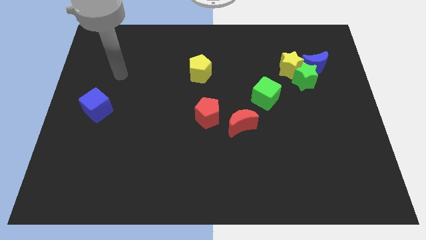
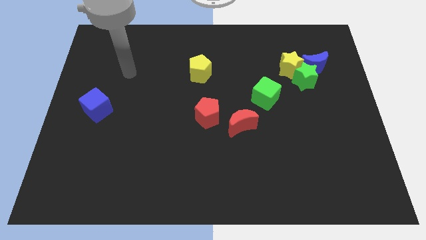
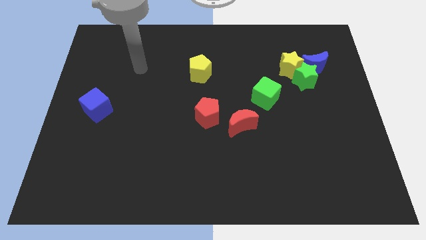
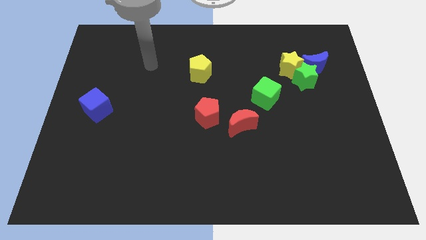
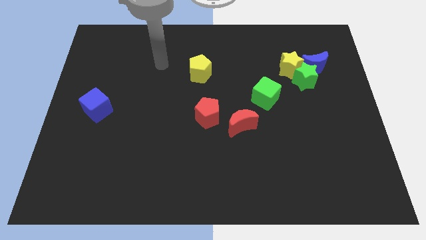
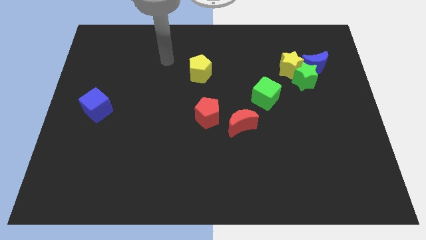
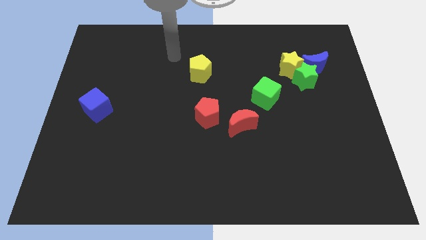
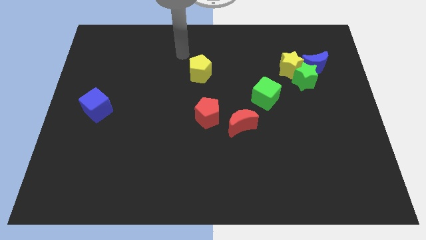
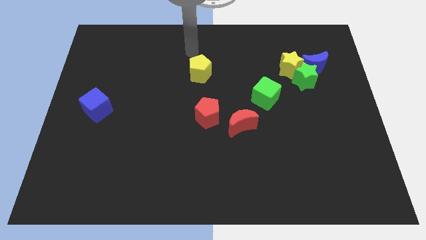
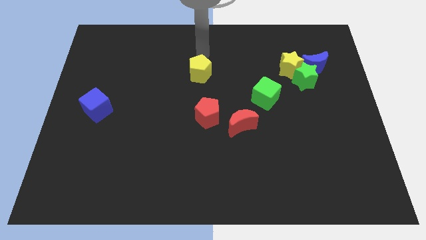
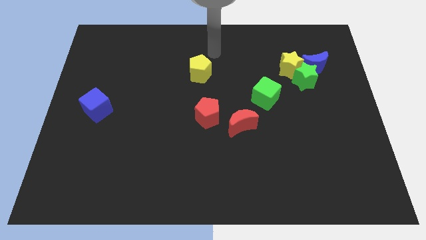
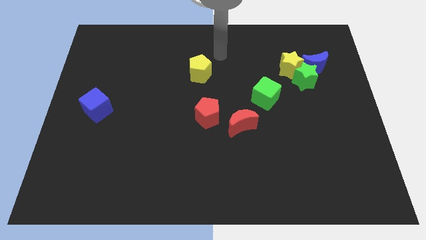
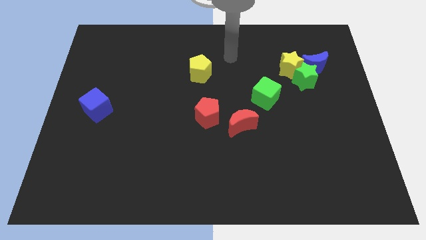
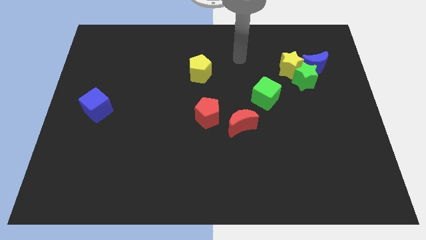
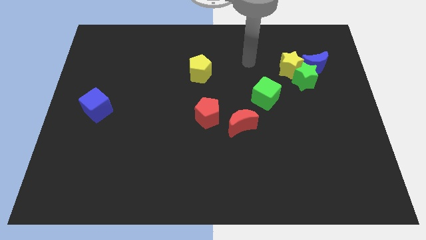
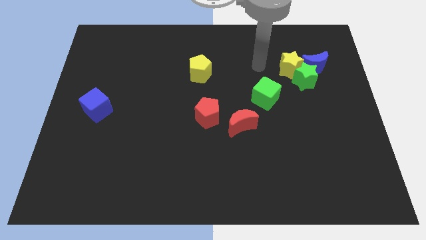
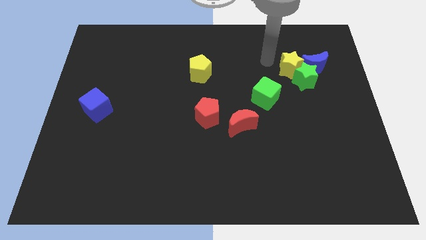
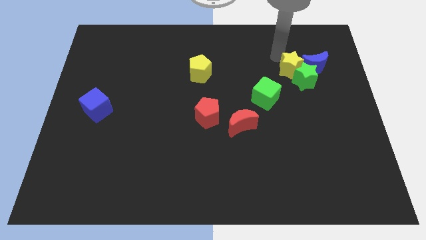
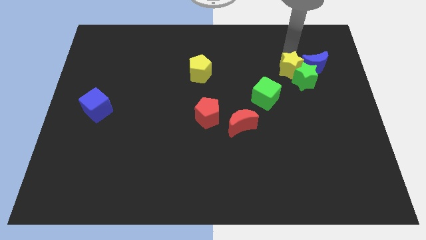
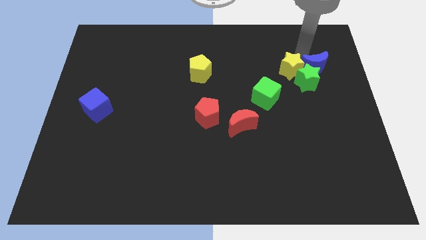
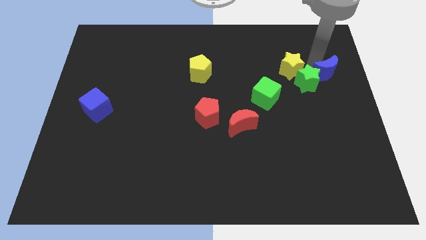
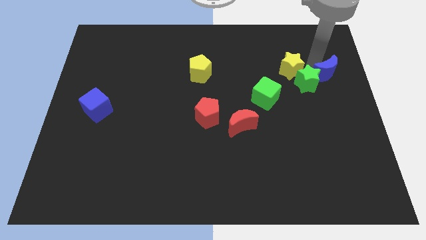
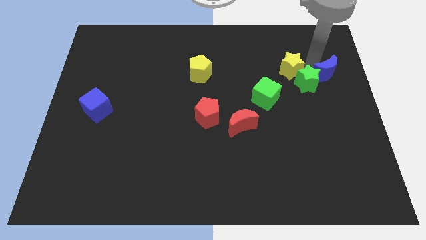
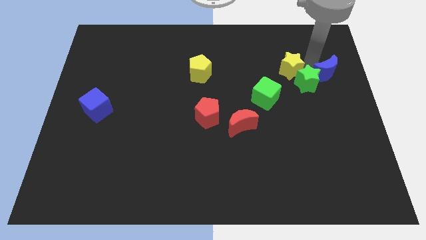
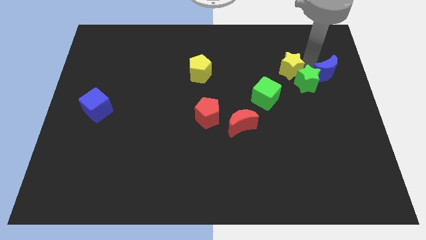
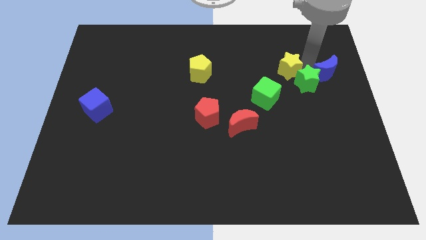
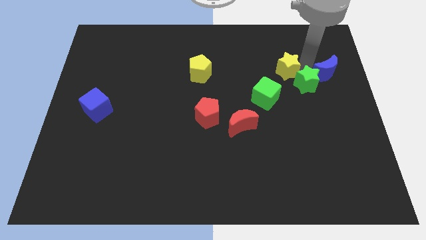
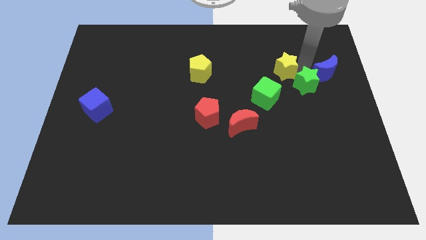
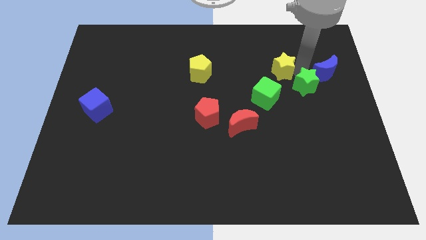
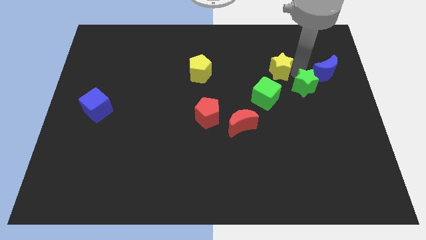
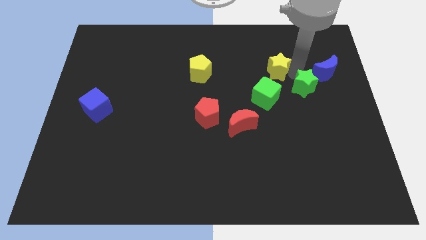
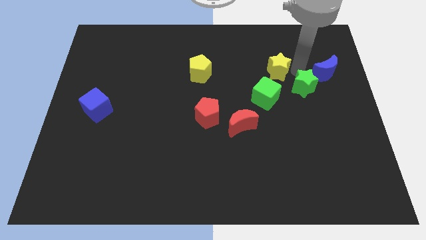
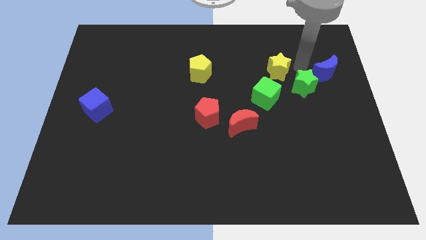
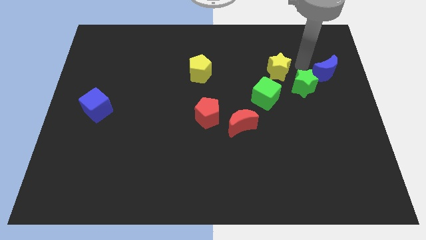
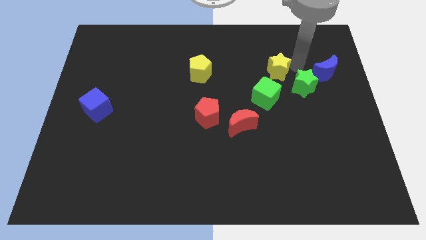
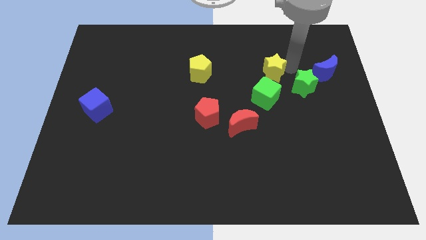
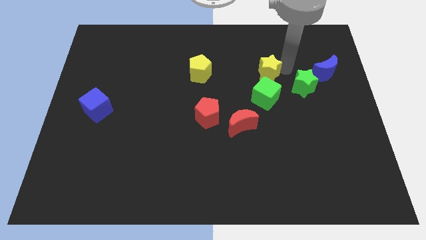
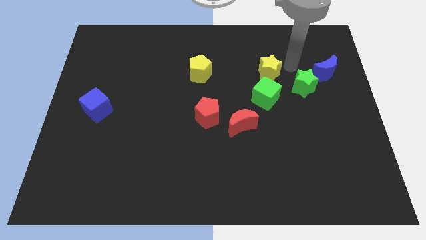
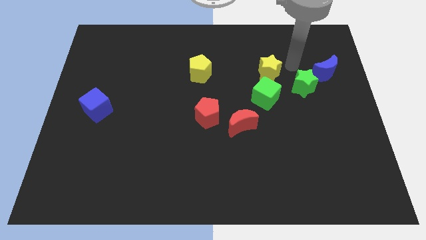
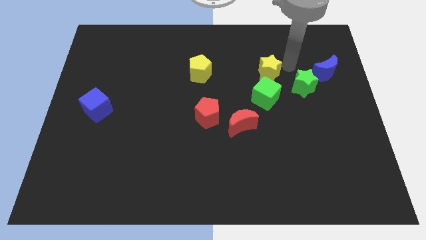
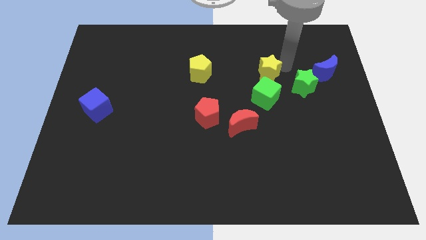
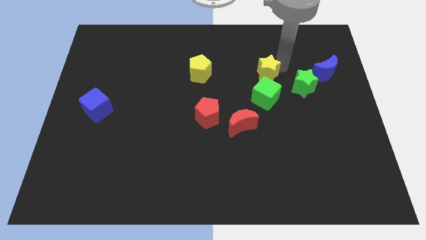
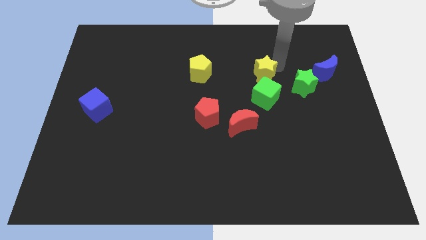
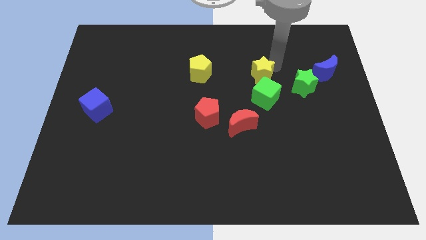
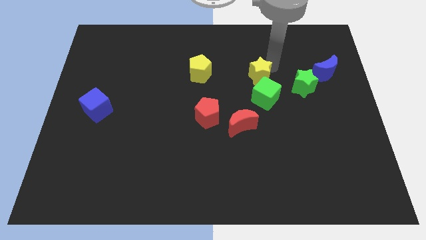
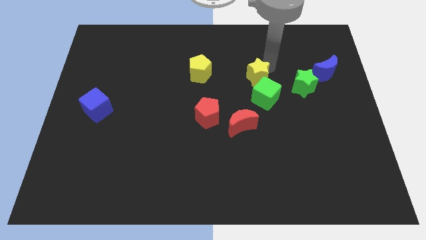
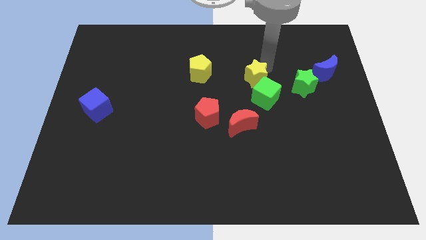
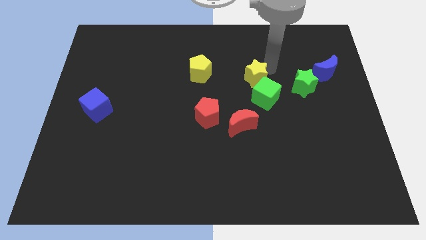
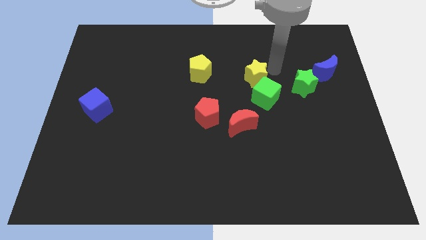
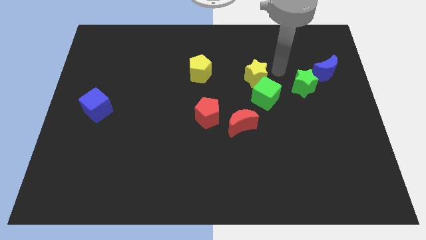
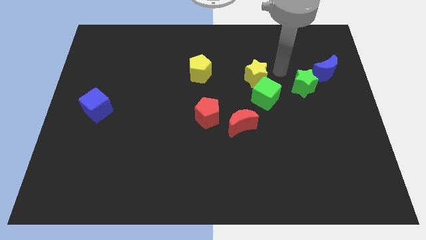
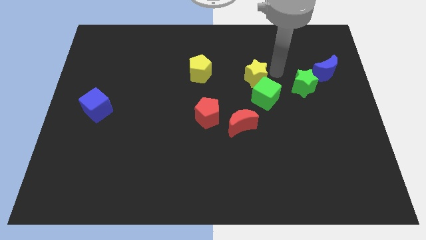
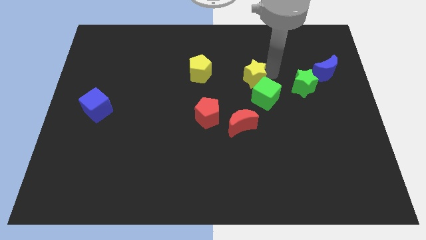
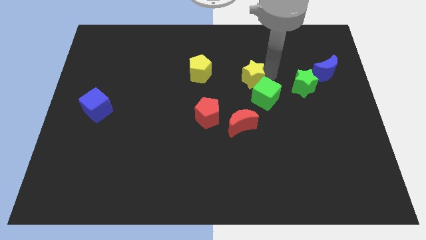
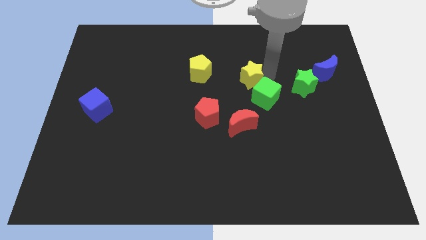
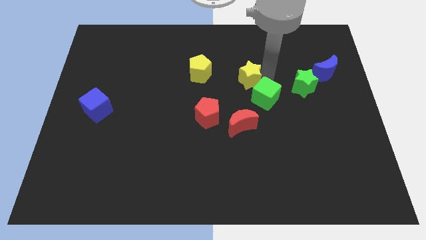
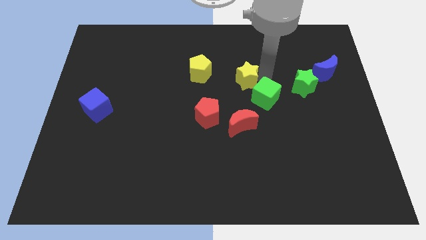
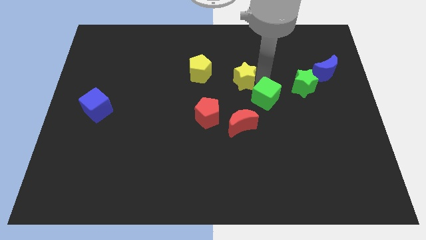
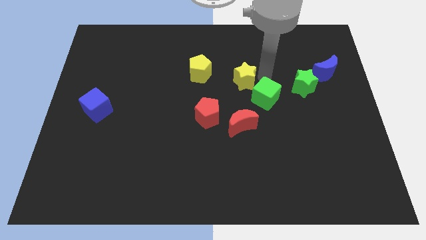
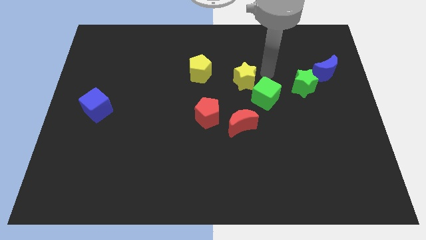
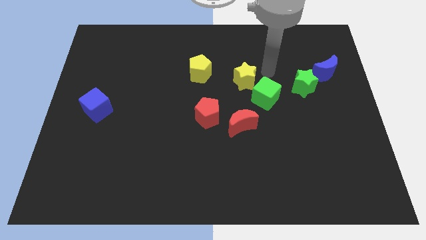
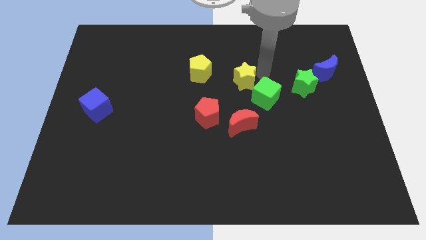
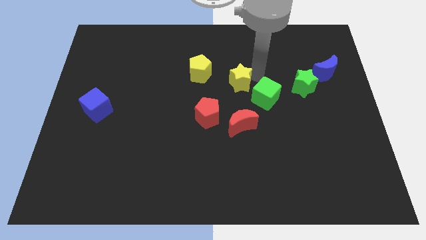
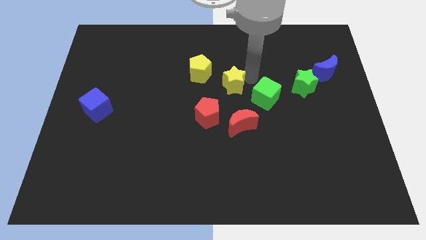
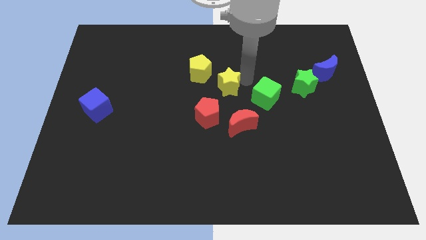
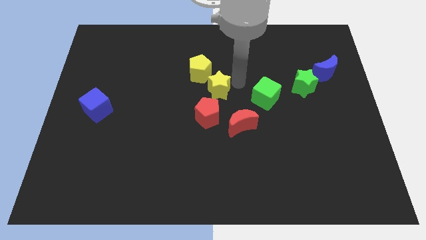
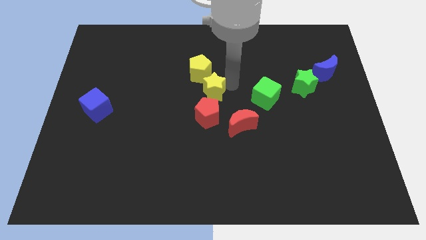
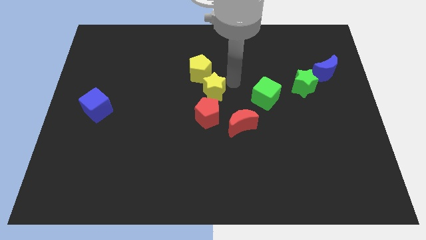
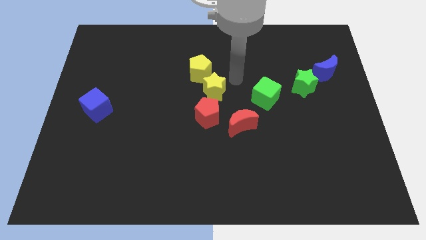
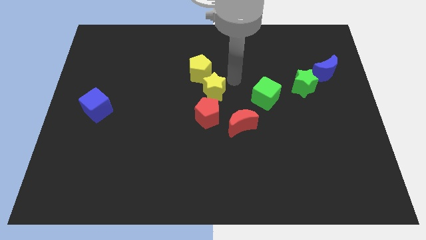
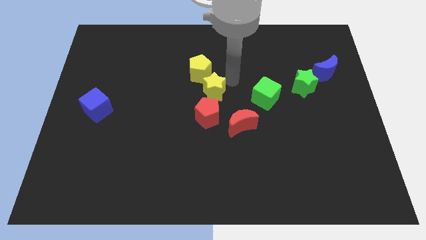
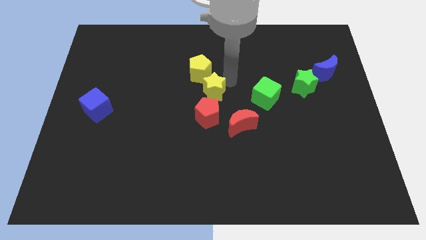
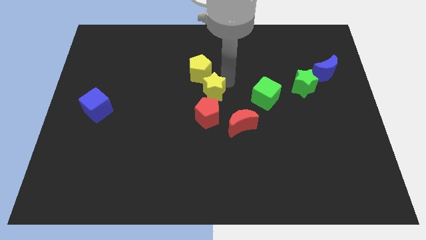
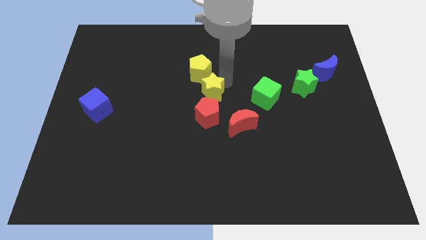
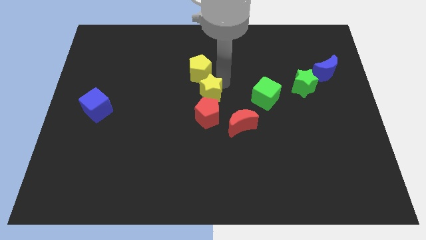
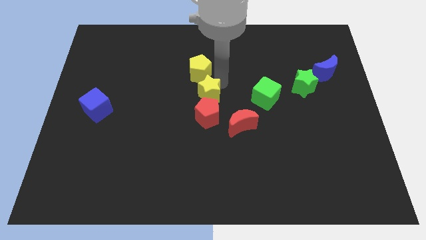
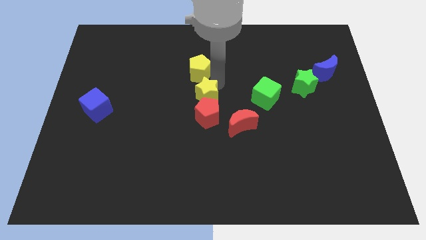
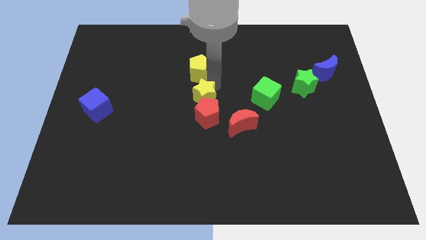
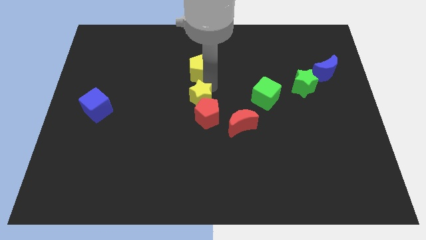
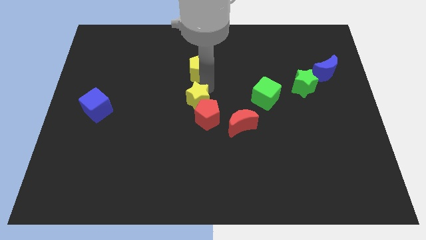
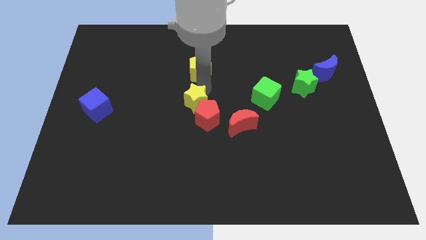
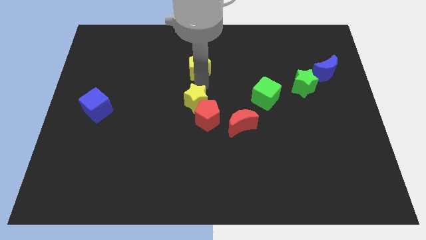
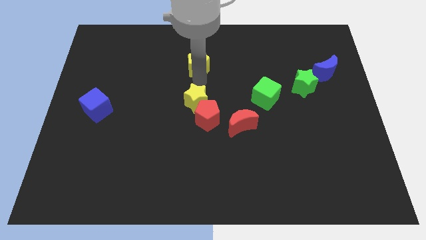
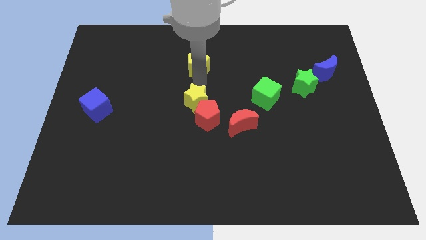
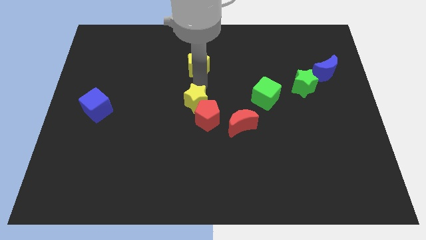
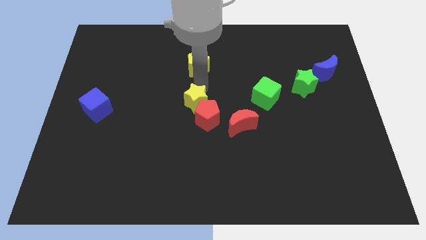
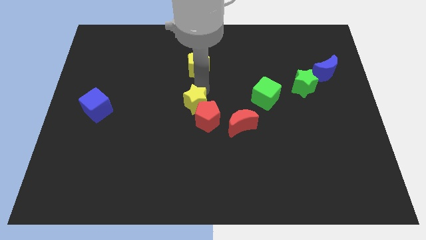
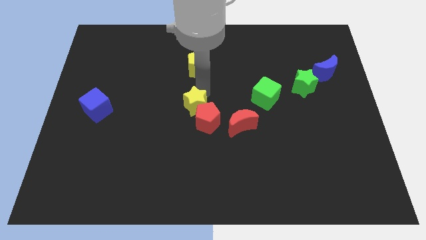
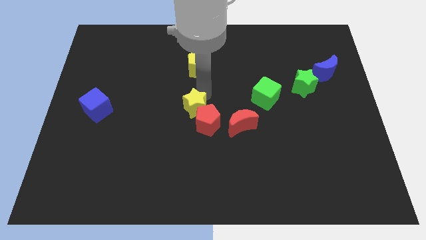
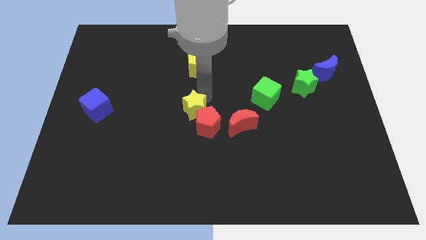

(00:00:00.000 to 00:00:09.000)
put the yellow star left of the red moon
